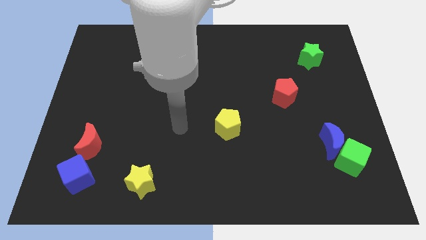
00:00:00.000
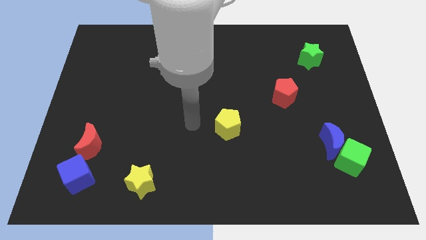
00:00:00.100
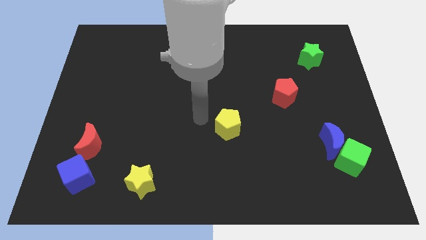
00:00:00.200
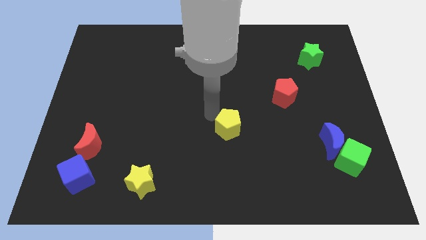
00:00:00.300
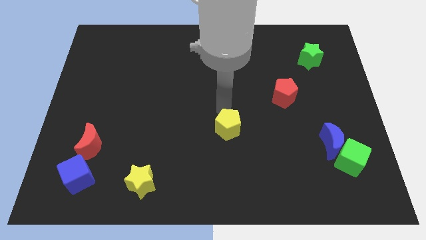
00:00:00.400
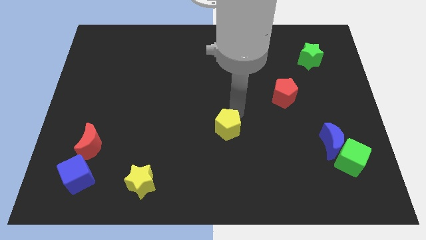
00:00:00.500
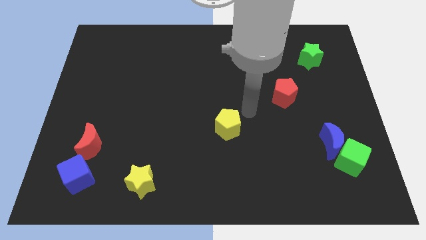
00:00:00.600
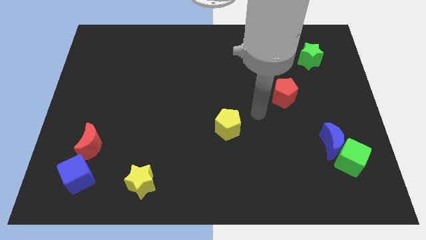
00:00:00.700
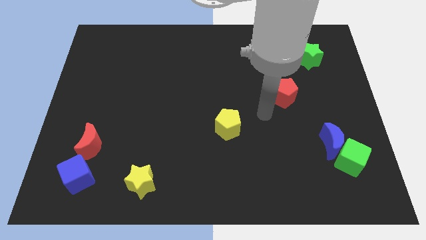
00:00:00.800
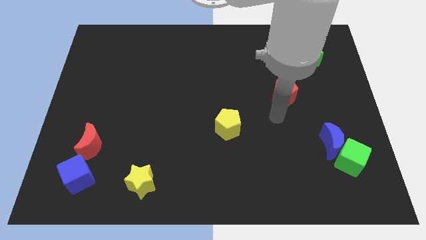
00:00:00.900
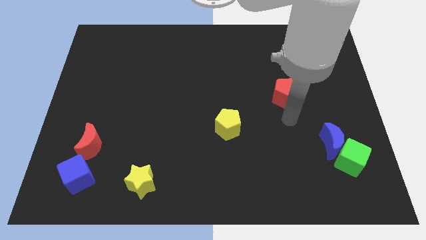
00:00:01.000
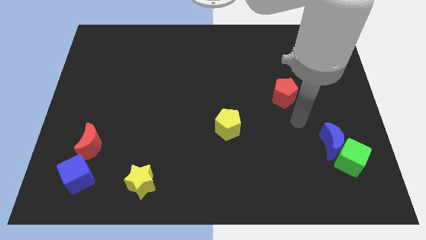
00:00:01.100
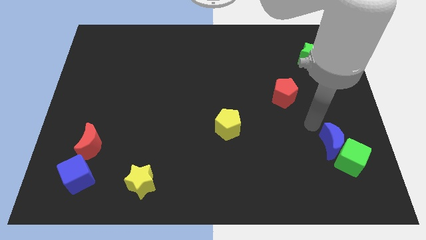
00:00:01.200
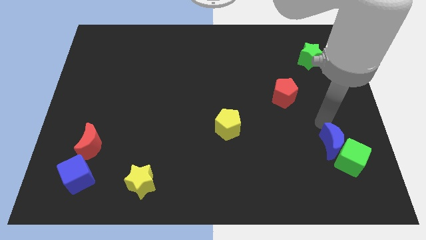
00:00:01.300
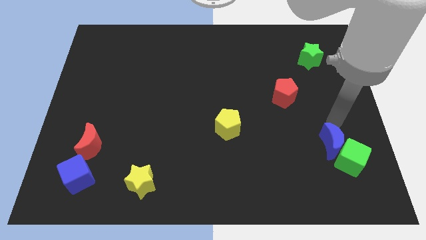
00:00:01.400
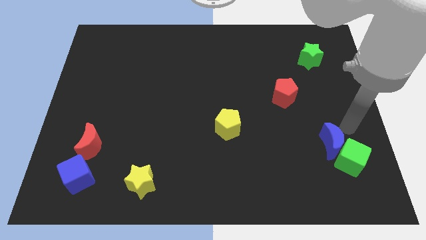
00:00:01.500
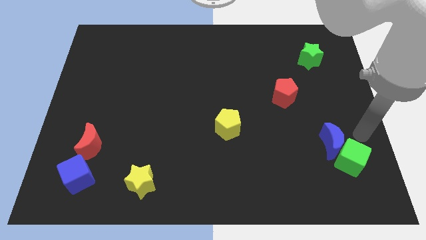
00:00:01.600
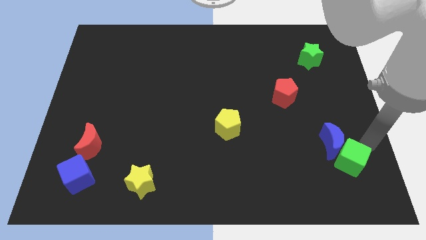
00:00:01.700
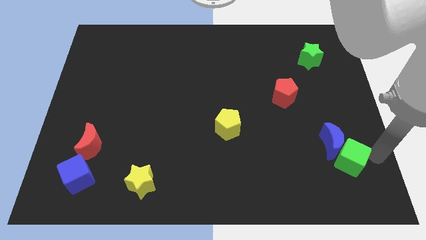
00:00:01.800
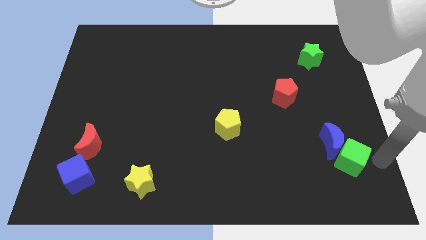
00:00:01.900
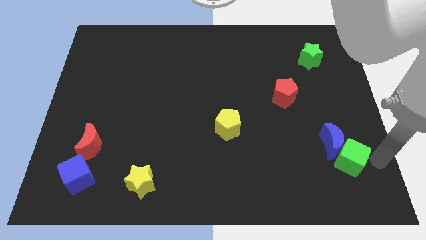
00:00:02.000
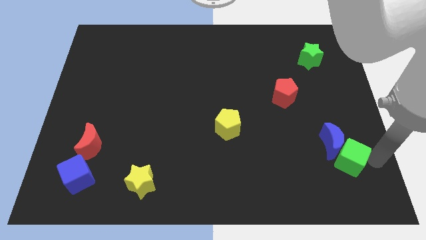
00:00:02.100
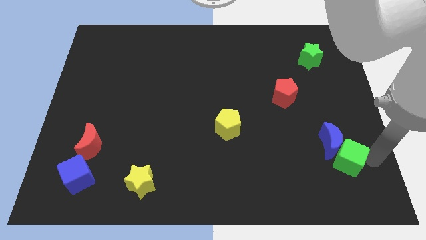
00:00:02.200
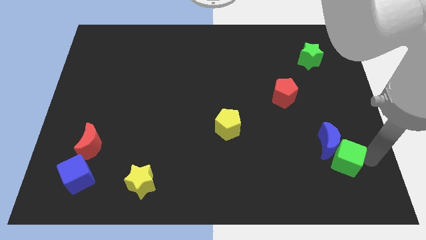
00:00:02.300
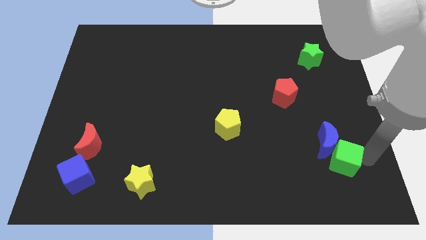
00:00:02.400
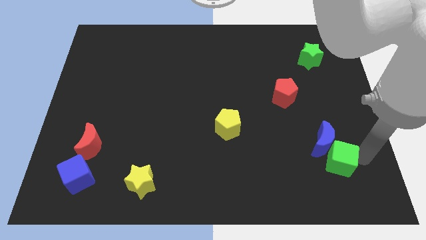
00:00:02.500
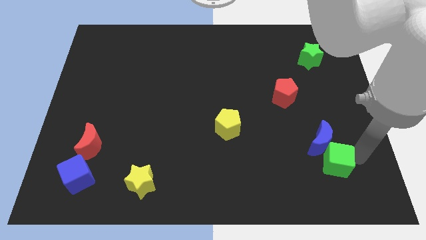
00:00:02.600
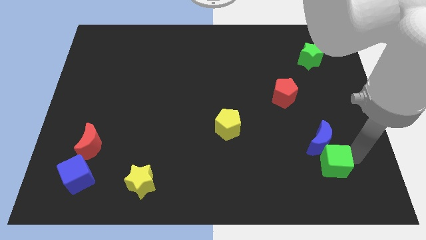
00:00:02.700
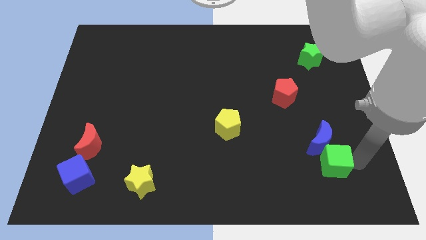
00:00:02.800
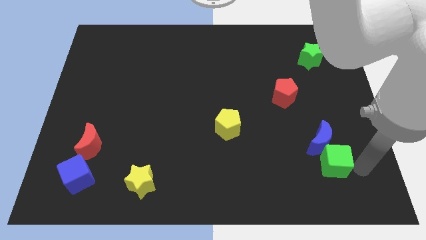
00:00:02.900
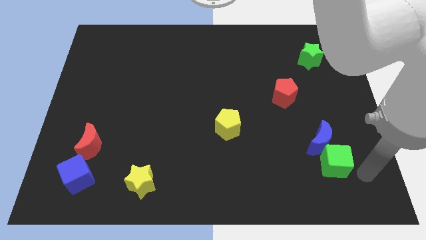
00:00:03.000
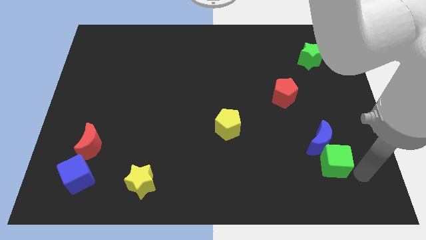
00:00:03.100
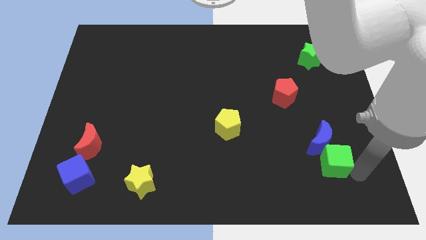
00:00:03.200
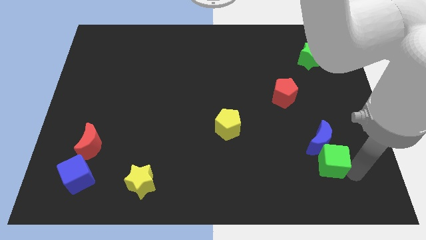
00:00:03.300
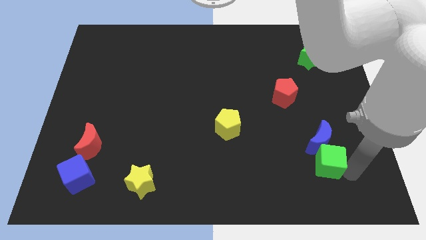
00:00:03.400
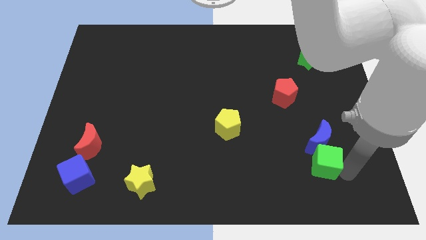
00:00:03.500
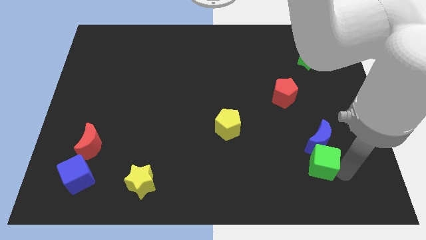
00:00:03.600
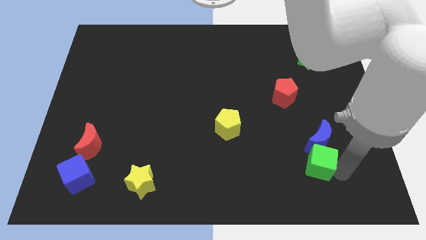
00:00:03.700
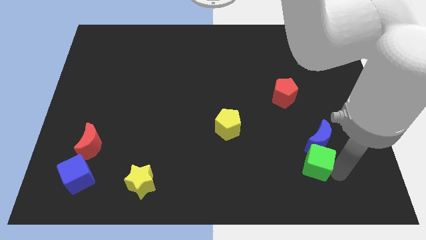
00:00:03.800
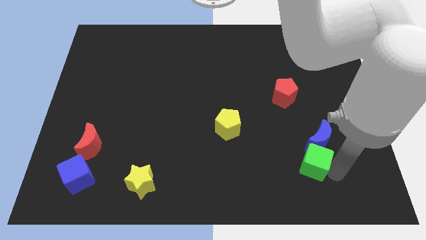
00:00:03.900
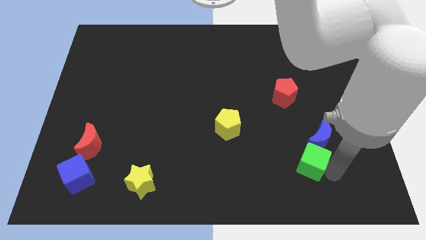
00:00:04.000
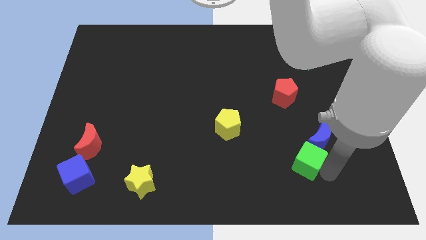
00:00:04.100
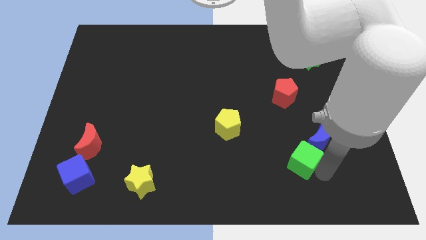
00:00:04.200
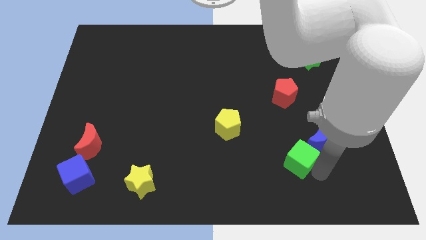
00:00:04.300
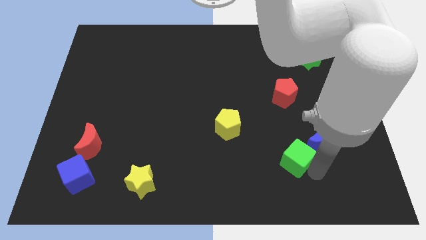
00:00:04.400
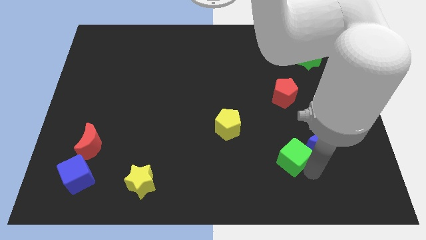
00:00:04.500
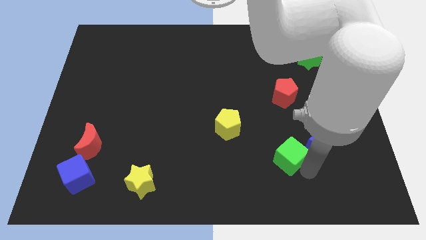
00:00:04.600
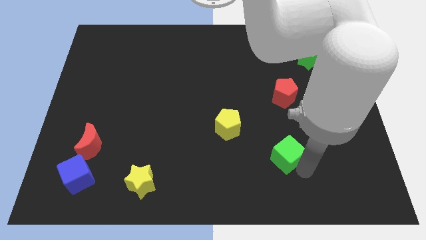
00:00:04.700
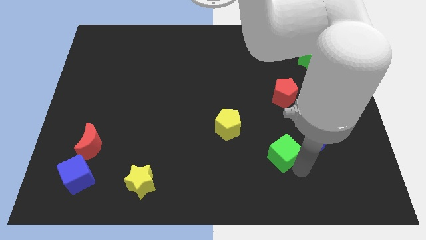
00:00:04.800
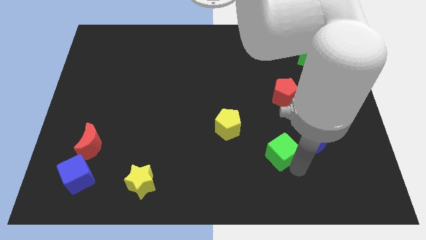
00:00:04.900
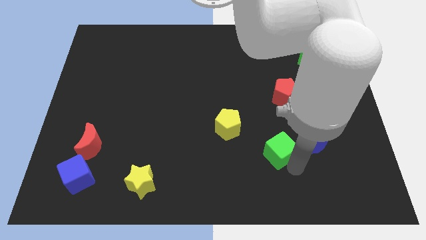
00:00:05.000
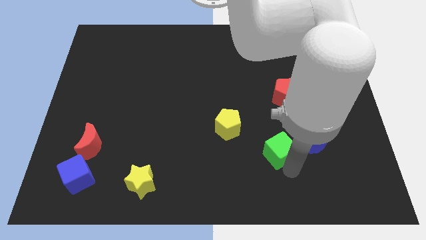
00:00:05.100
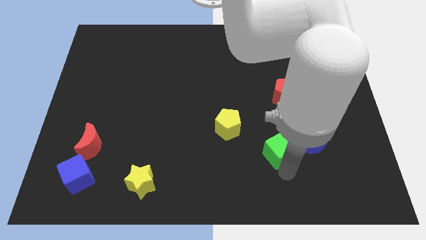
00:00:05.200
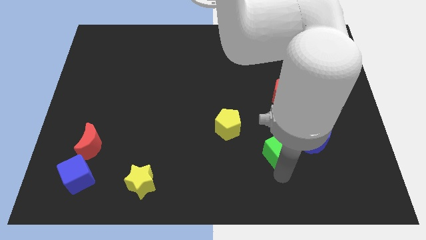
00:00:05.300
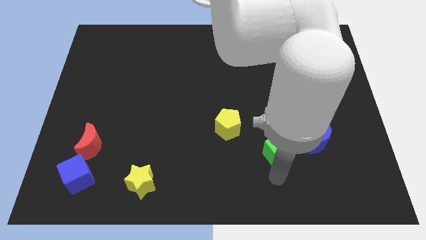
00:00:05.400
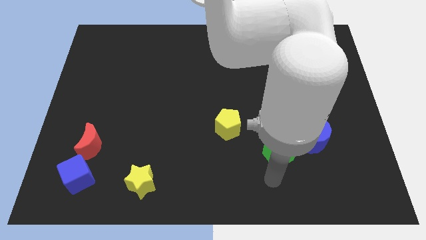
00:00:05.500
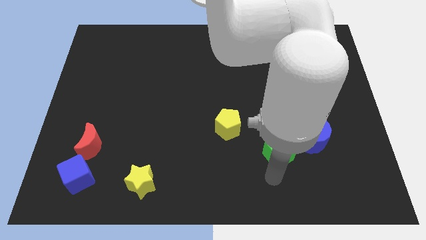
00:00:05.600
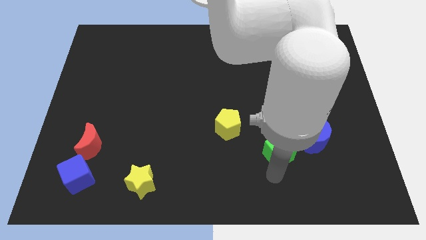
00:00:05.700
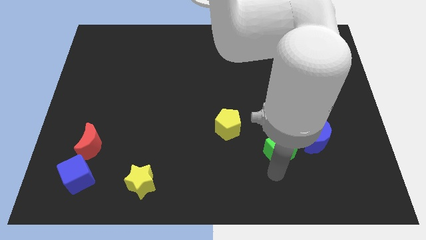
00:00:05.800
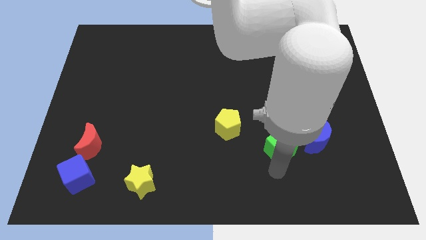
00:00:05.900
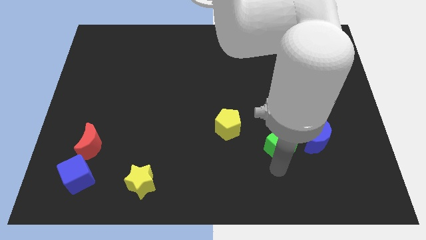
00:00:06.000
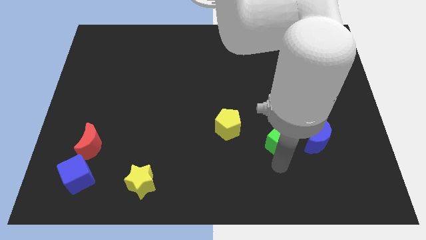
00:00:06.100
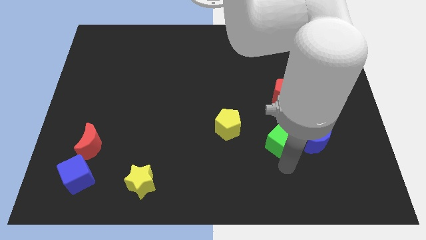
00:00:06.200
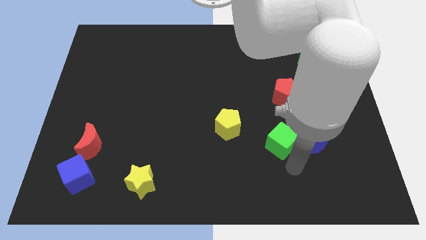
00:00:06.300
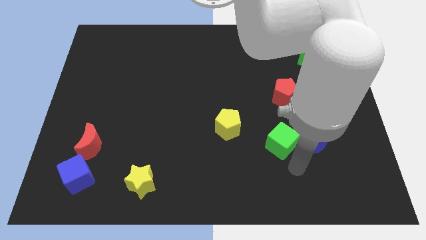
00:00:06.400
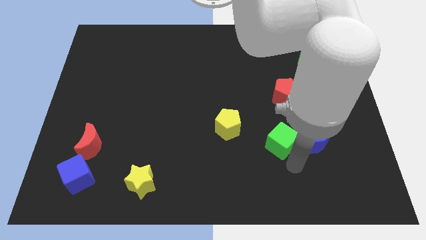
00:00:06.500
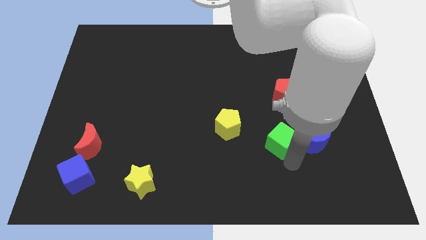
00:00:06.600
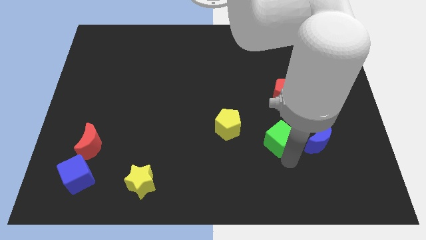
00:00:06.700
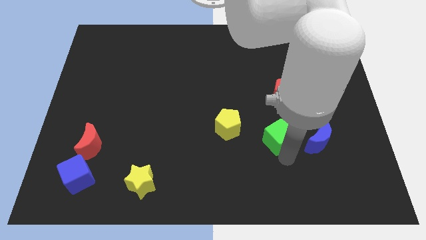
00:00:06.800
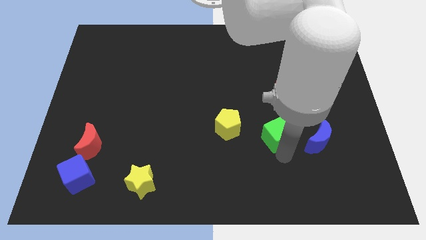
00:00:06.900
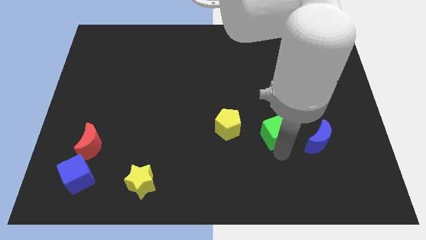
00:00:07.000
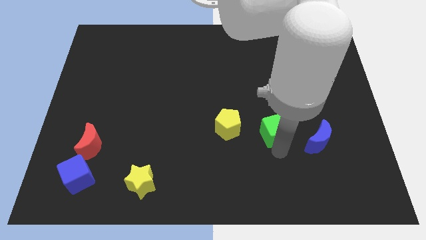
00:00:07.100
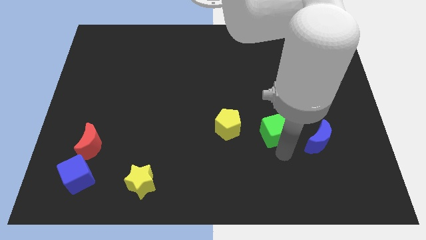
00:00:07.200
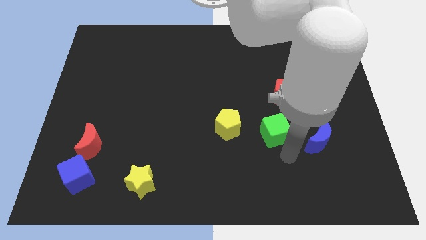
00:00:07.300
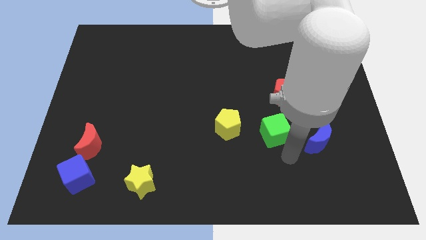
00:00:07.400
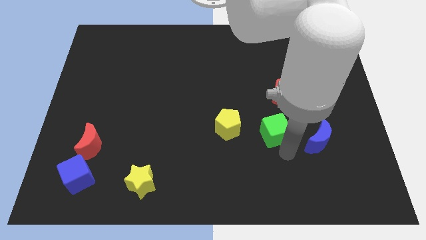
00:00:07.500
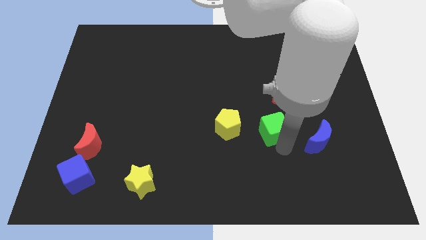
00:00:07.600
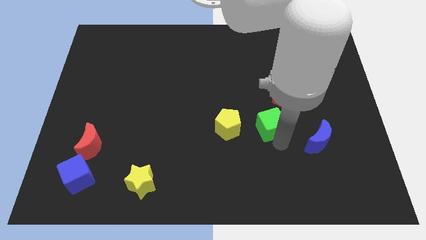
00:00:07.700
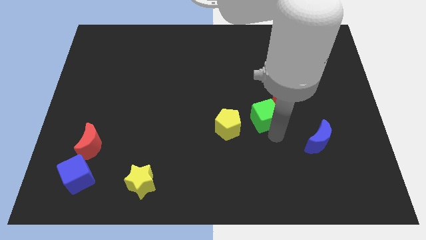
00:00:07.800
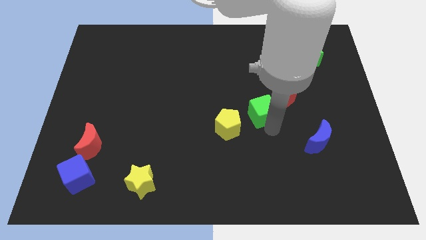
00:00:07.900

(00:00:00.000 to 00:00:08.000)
move the green cube up and then to the left

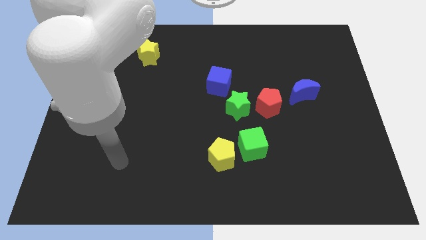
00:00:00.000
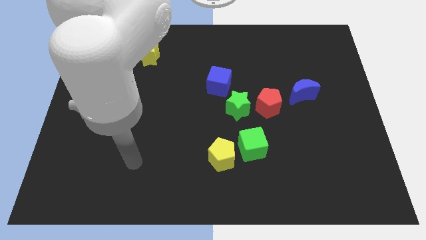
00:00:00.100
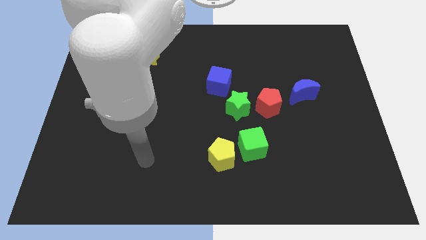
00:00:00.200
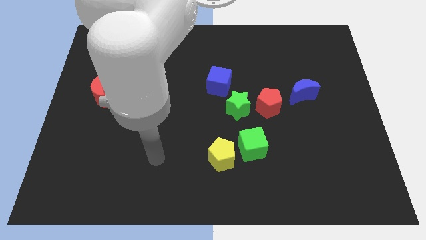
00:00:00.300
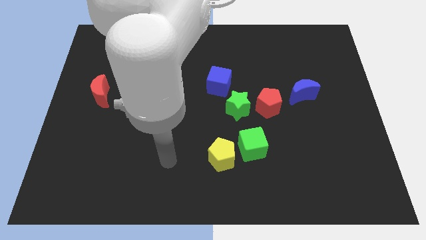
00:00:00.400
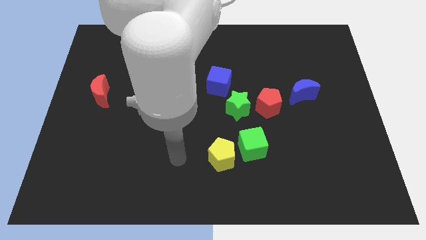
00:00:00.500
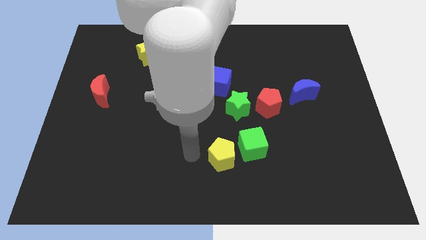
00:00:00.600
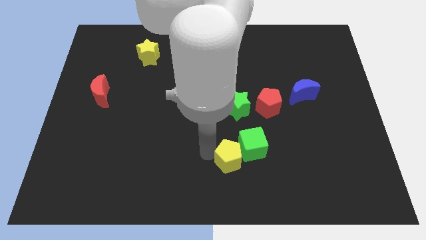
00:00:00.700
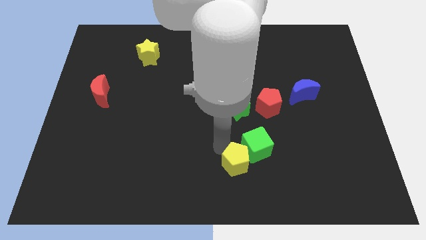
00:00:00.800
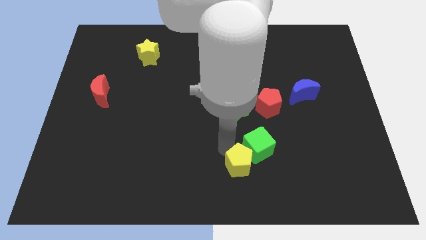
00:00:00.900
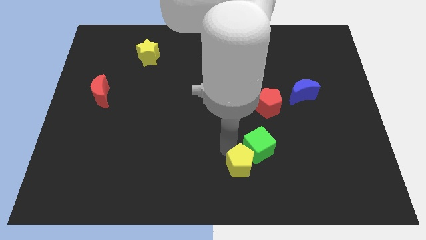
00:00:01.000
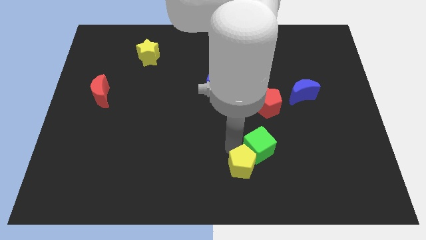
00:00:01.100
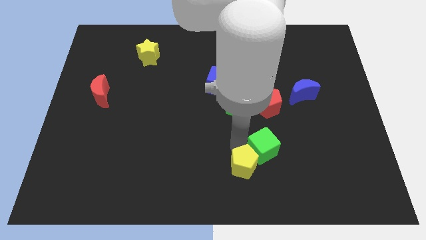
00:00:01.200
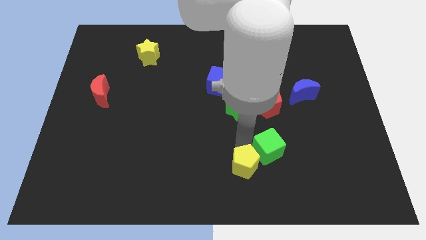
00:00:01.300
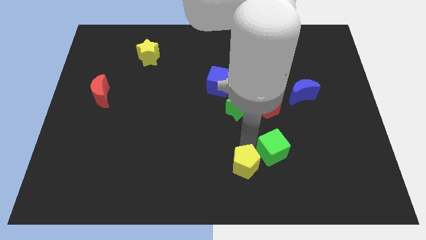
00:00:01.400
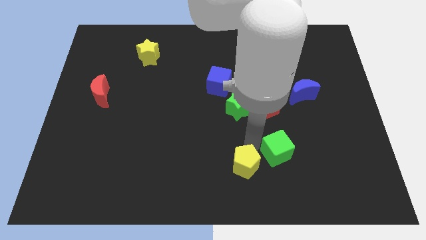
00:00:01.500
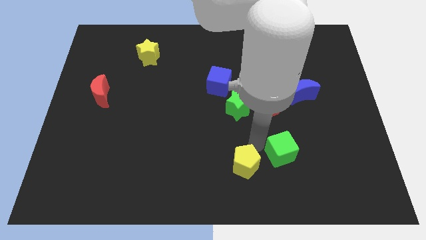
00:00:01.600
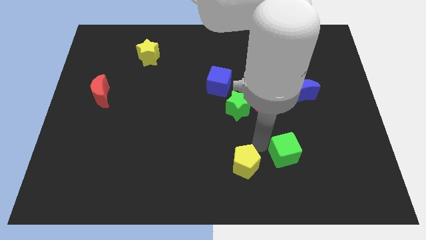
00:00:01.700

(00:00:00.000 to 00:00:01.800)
move the green cube right somewhat
